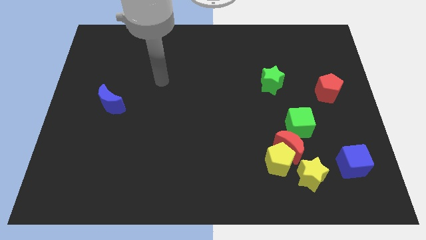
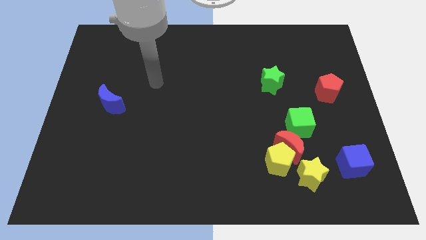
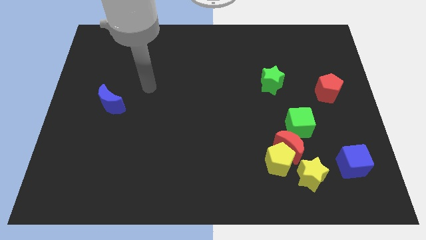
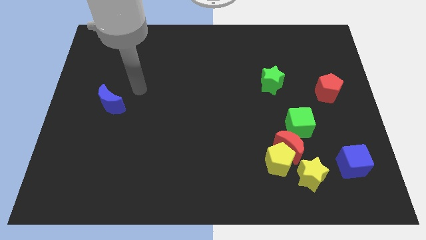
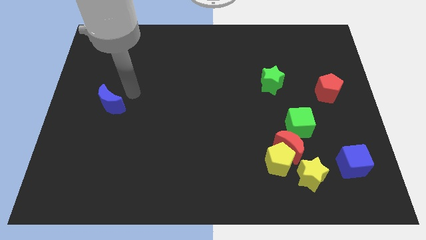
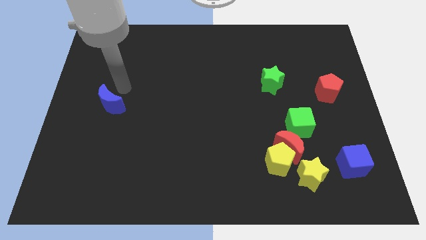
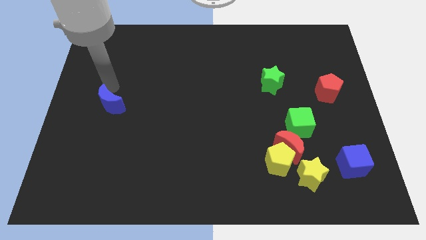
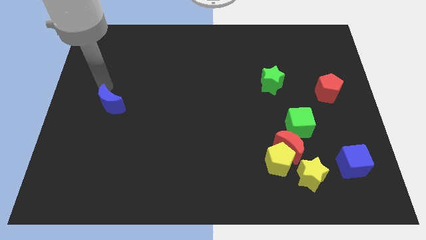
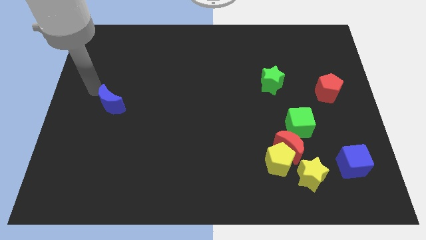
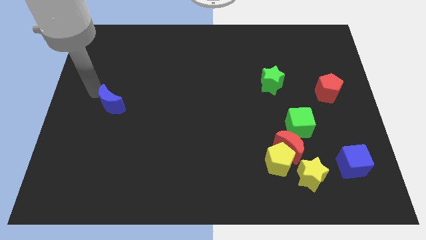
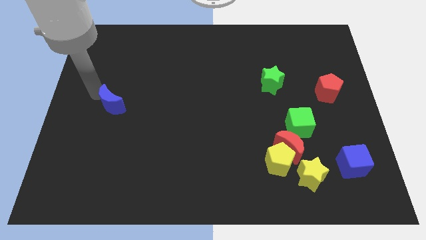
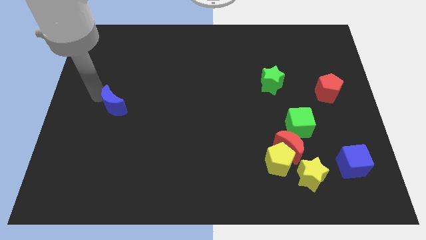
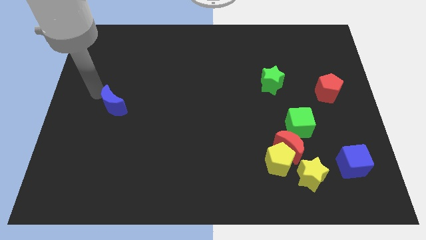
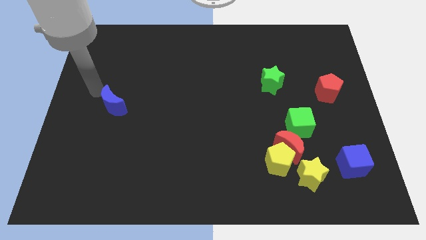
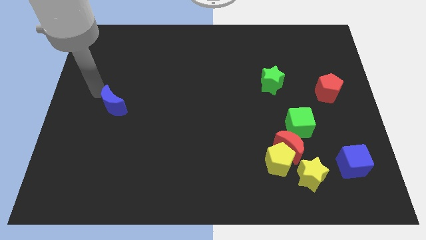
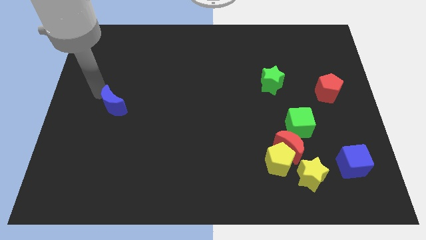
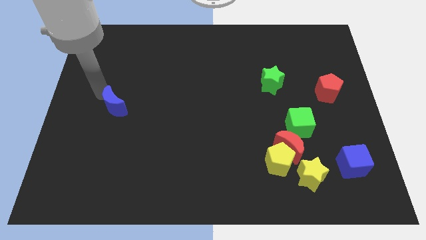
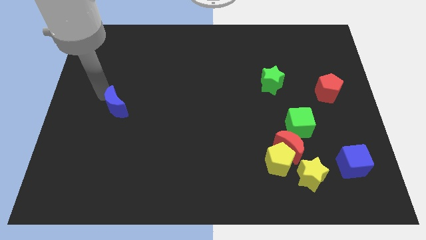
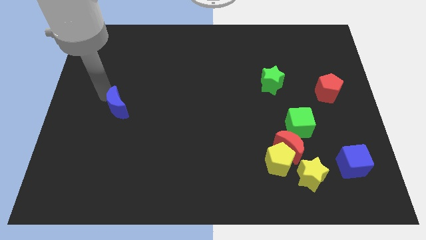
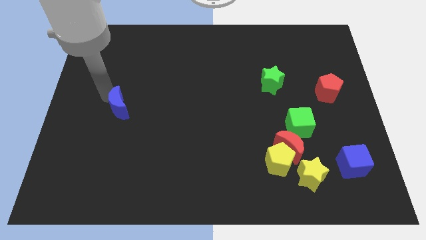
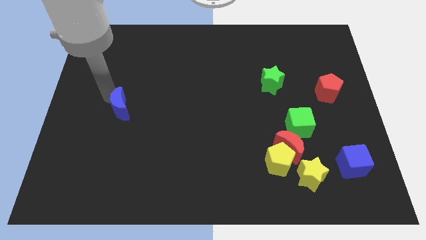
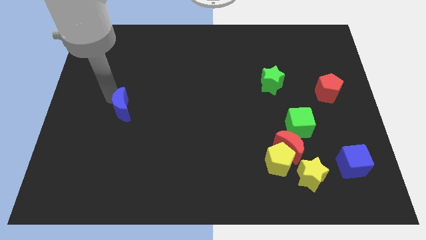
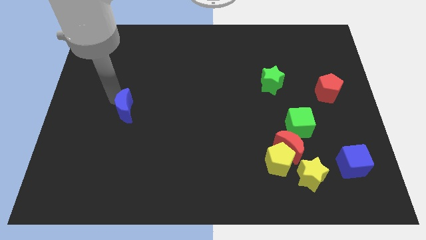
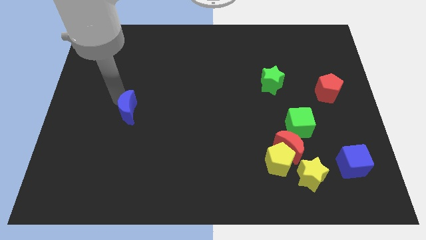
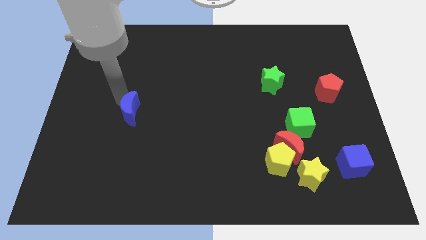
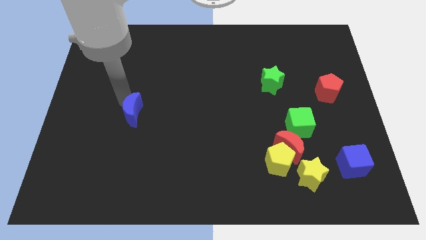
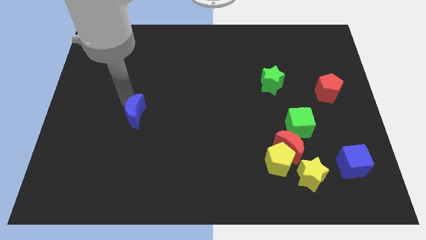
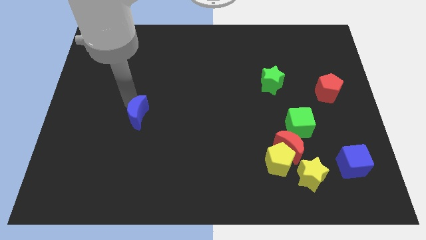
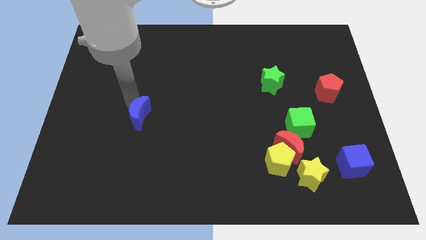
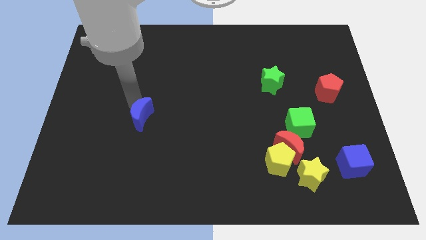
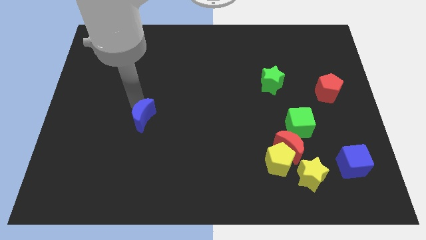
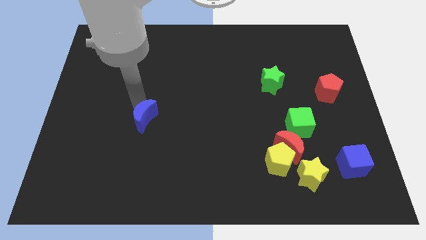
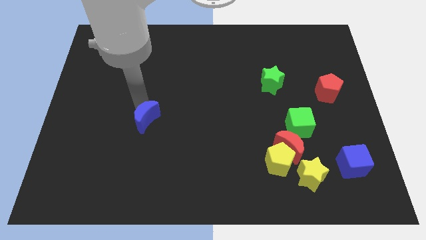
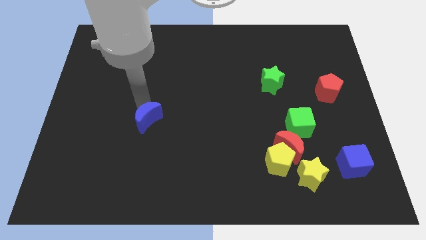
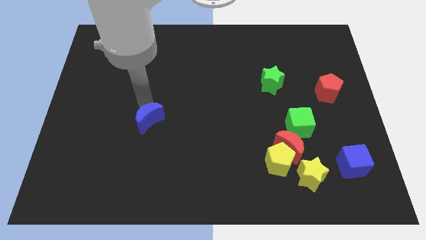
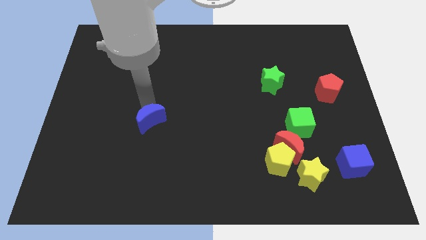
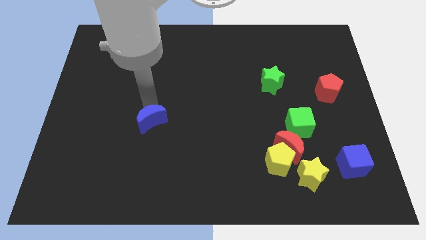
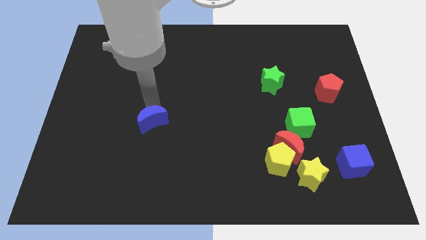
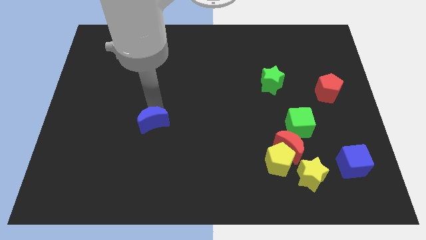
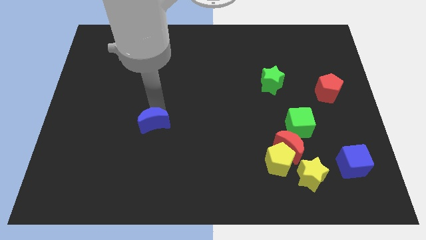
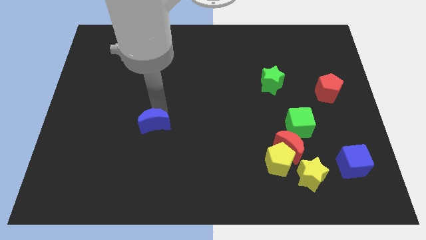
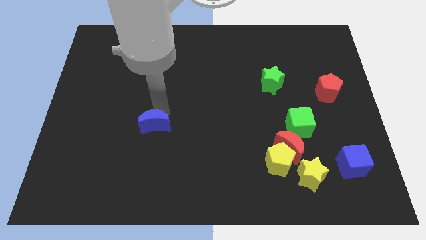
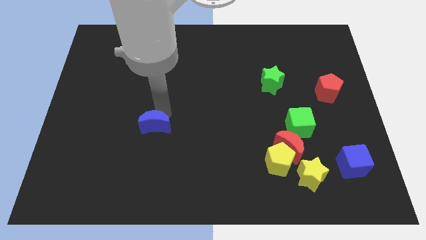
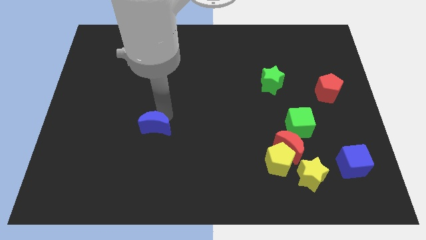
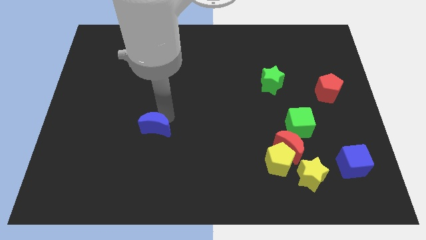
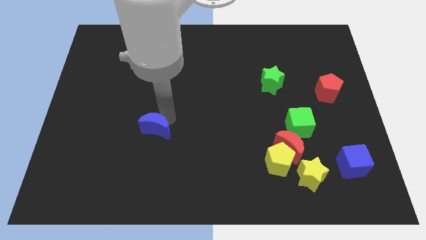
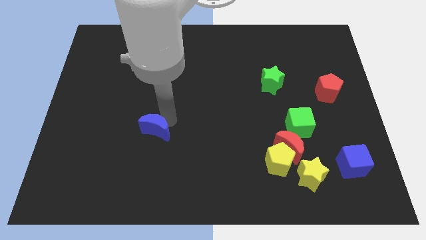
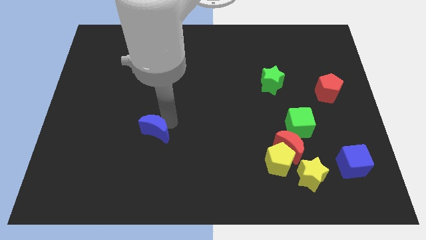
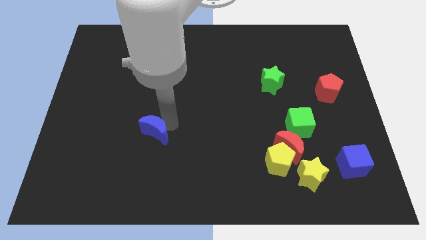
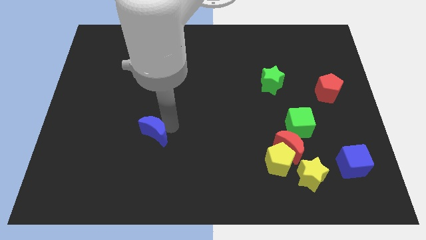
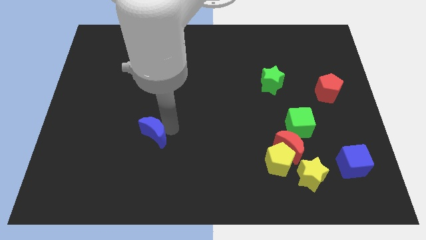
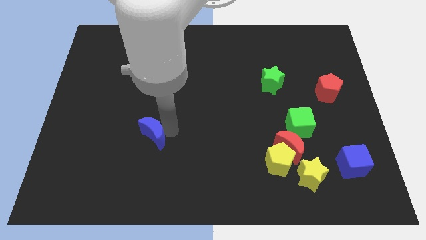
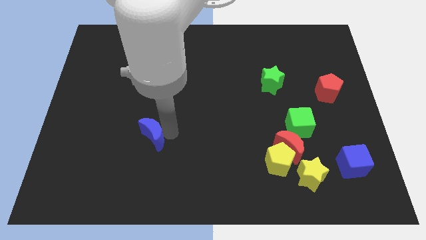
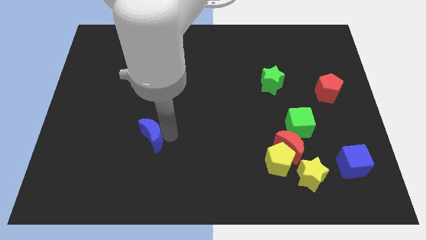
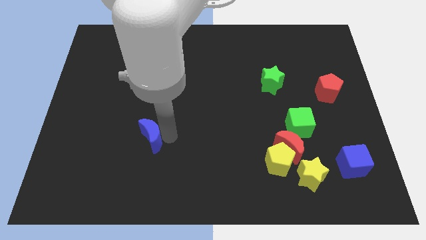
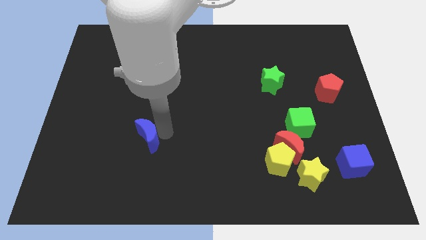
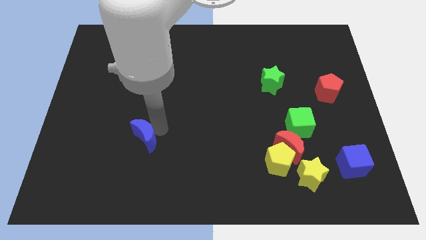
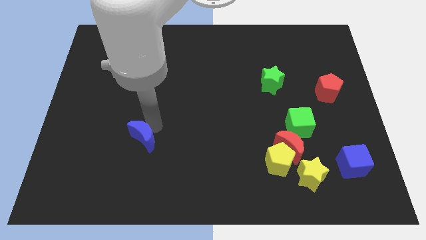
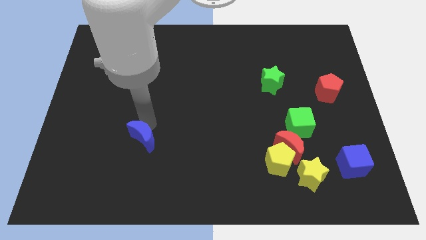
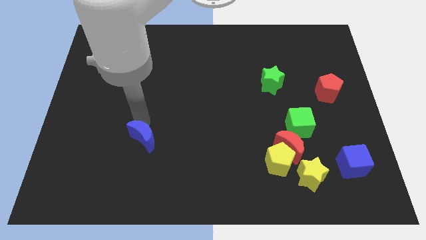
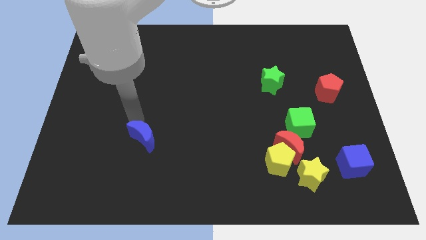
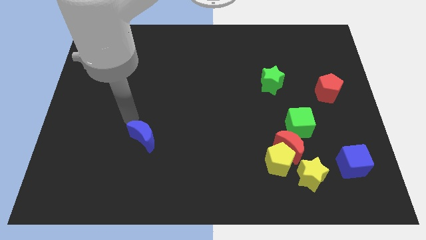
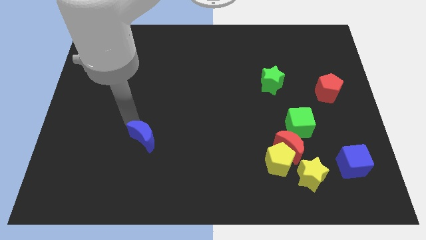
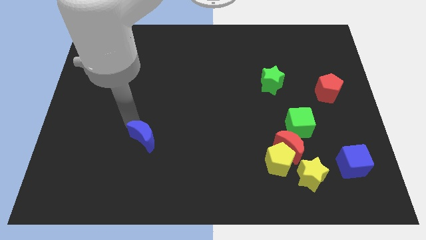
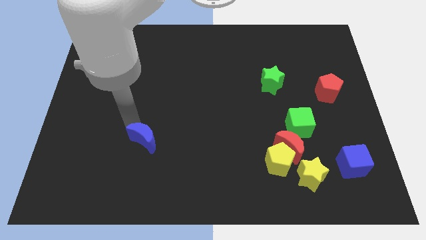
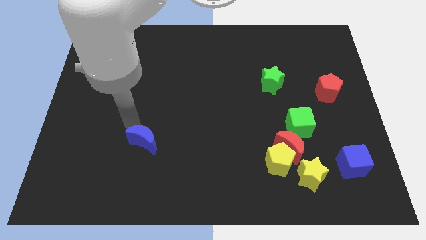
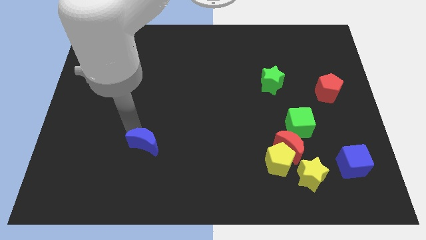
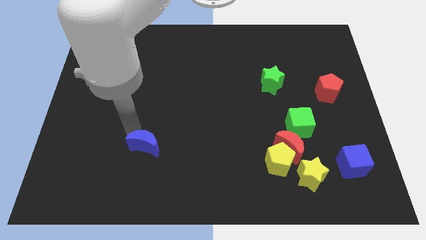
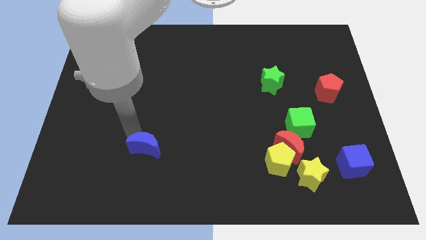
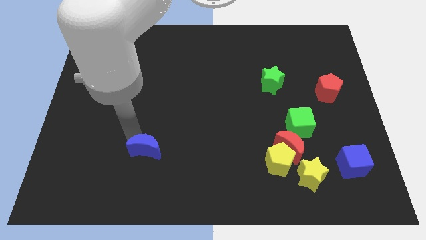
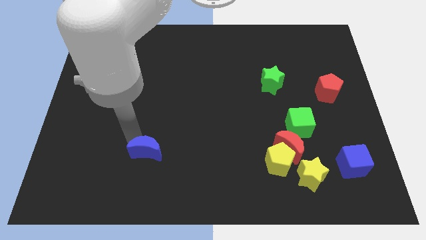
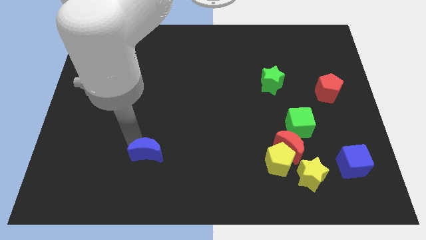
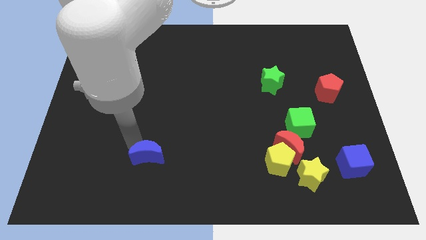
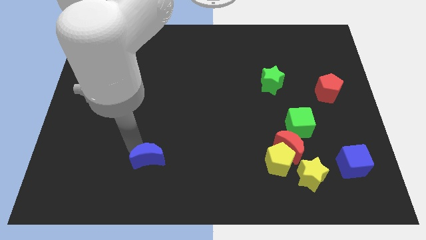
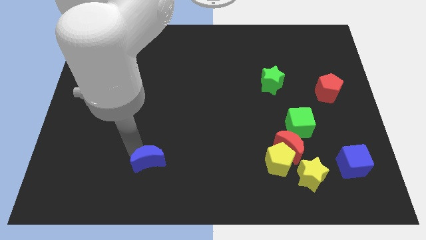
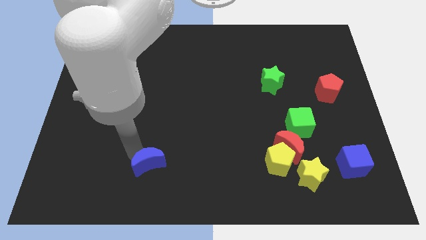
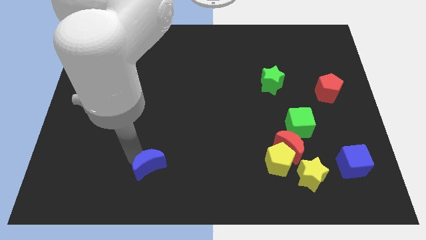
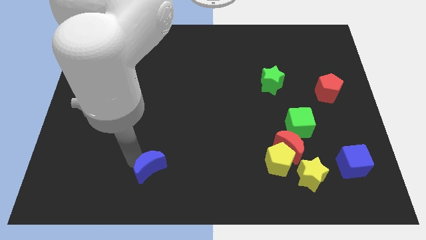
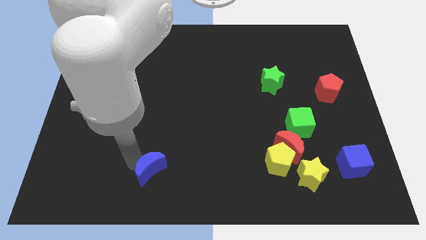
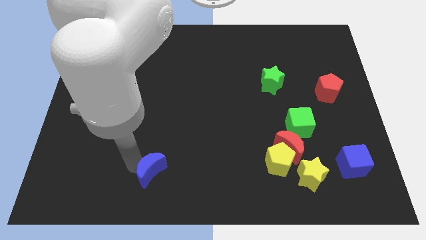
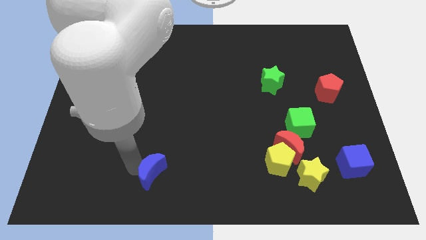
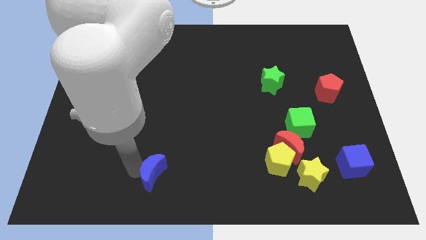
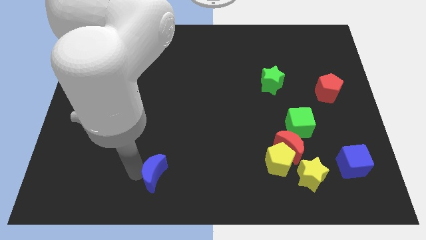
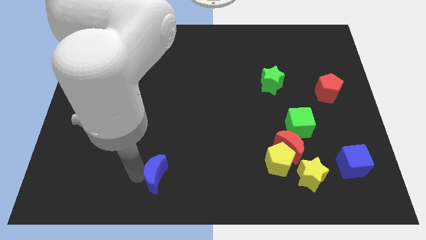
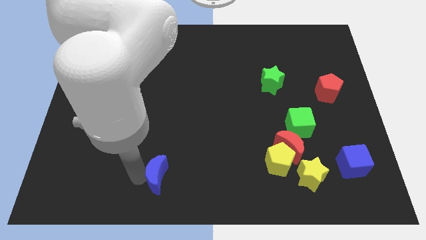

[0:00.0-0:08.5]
slide the blue moon to the bottom
